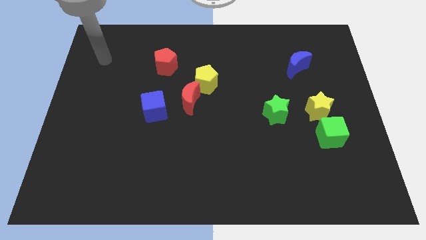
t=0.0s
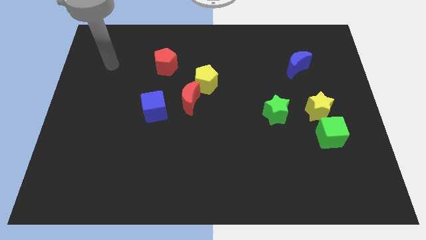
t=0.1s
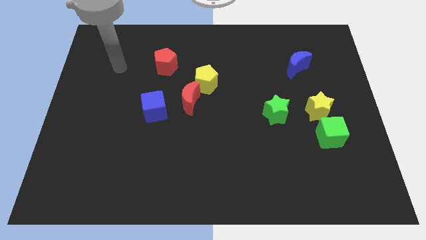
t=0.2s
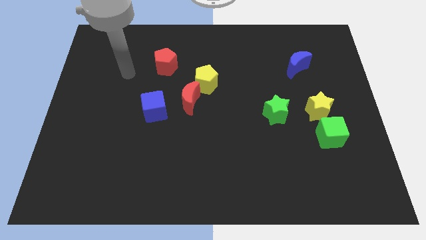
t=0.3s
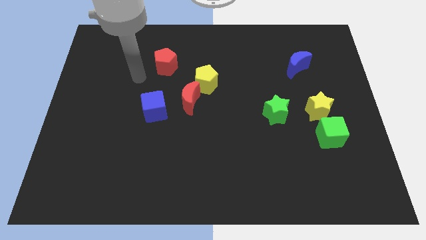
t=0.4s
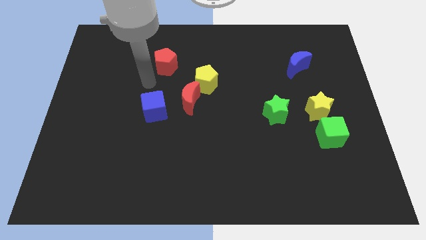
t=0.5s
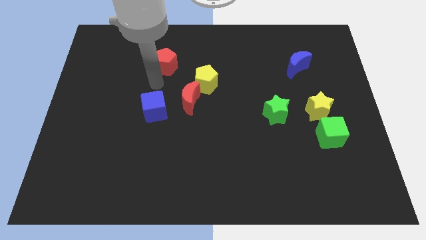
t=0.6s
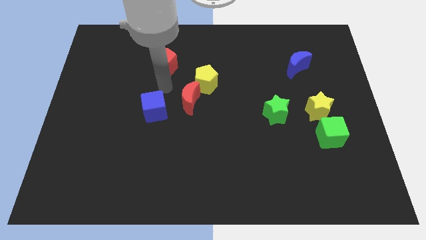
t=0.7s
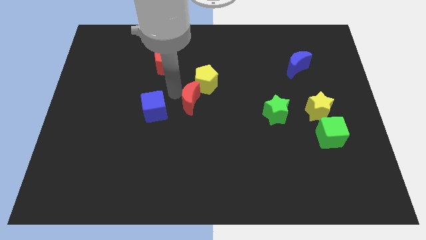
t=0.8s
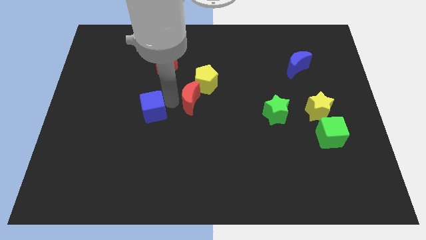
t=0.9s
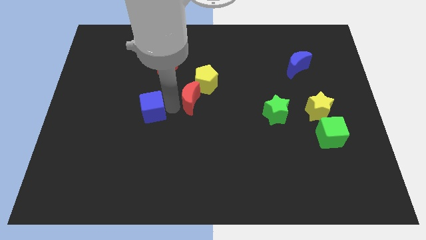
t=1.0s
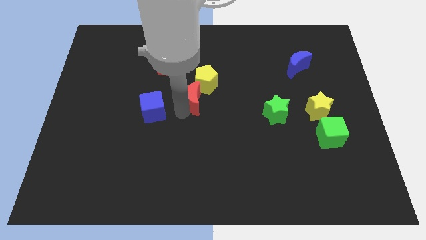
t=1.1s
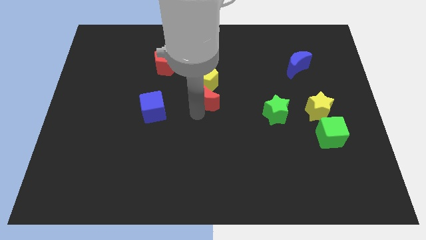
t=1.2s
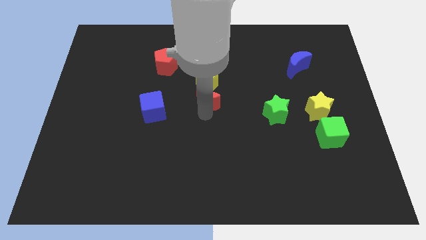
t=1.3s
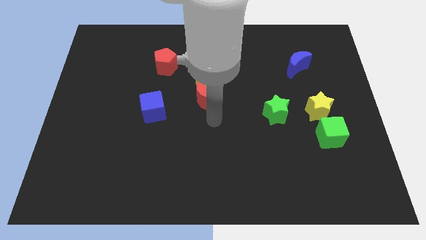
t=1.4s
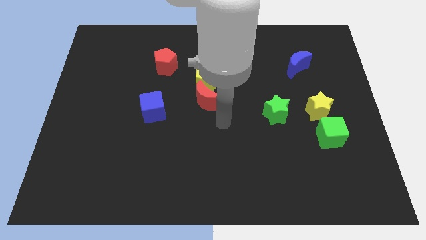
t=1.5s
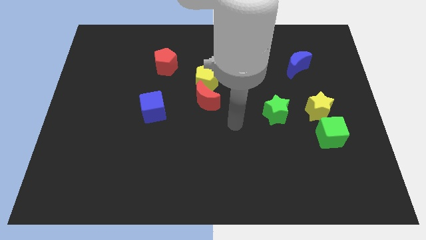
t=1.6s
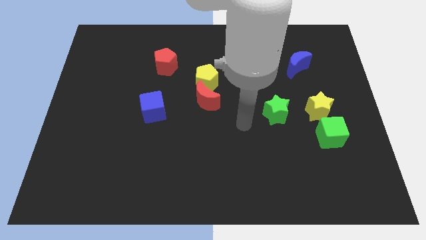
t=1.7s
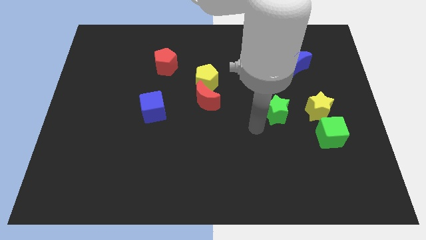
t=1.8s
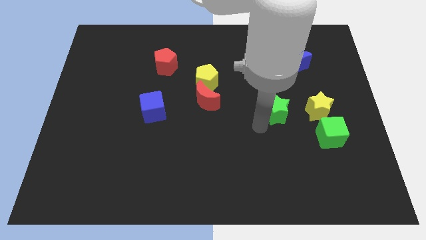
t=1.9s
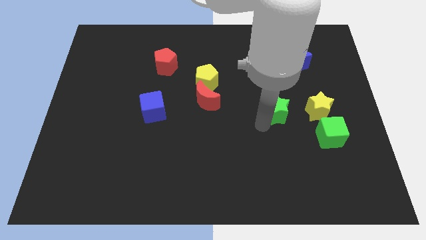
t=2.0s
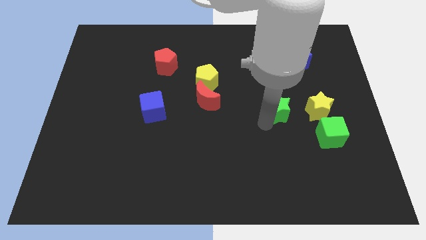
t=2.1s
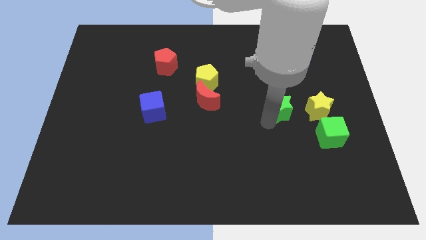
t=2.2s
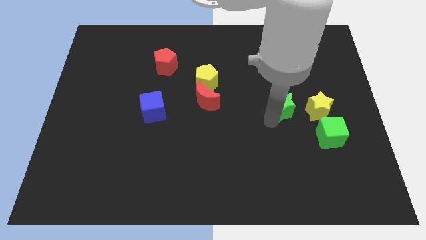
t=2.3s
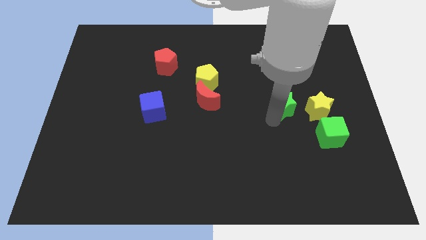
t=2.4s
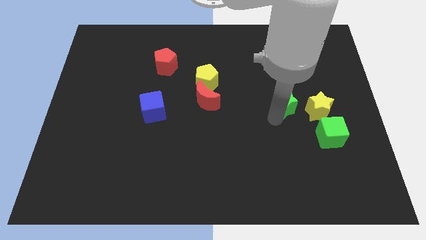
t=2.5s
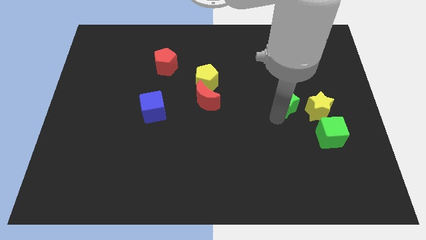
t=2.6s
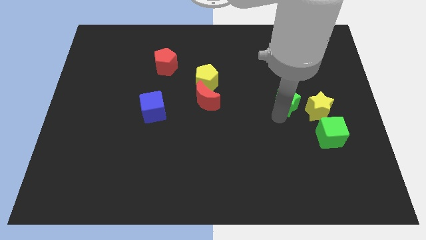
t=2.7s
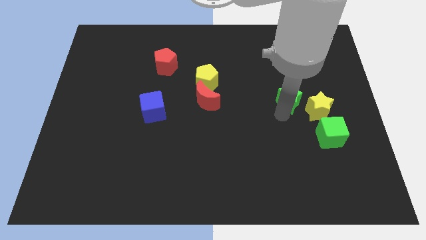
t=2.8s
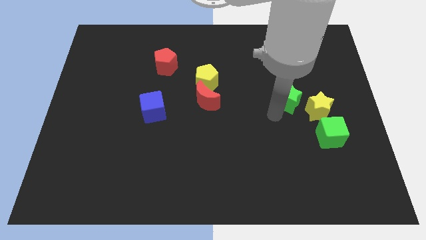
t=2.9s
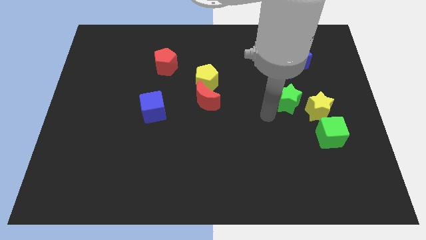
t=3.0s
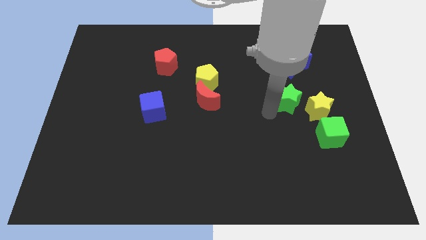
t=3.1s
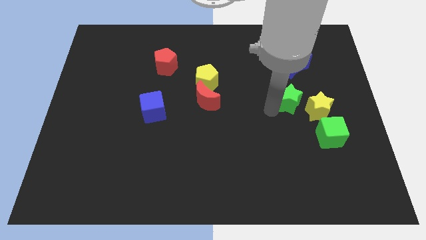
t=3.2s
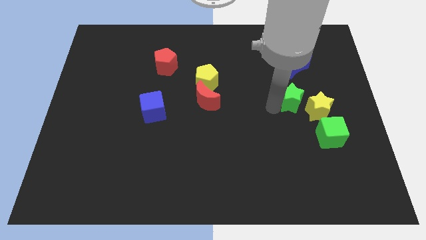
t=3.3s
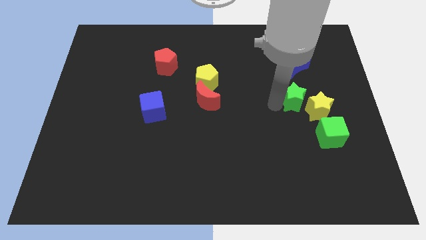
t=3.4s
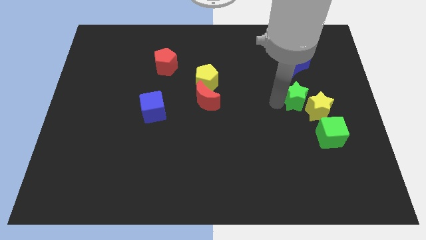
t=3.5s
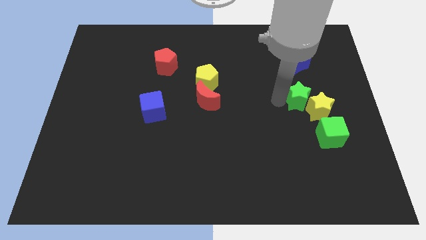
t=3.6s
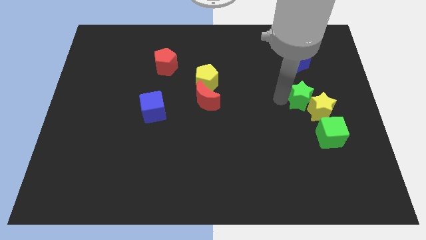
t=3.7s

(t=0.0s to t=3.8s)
slightly push the green star upwards and to the right

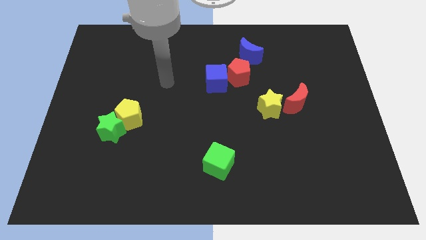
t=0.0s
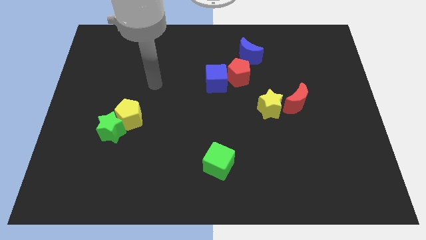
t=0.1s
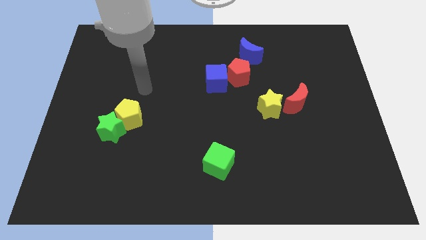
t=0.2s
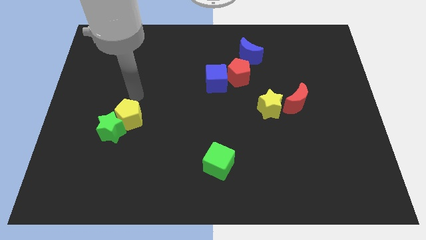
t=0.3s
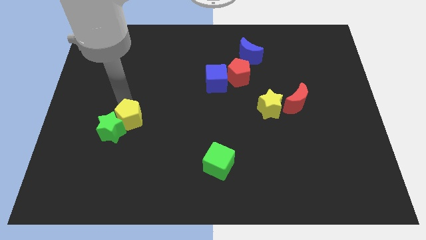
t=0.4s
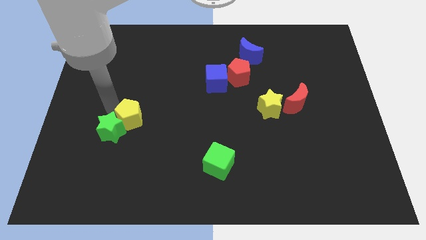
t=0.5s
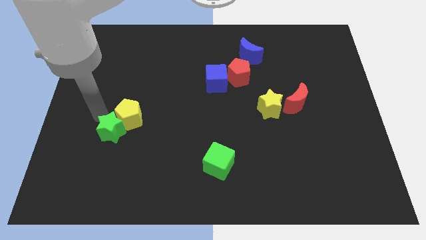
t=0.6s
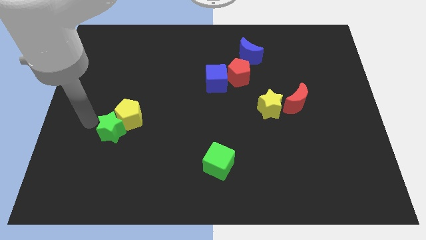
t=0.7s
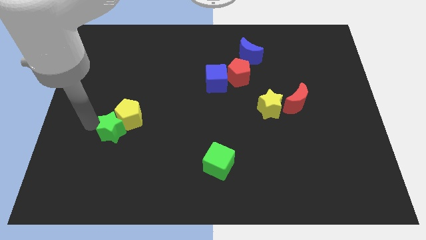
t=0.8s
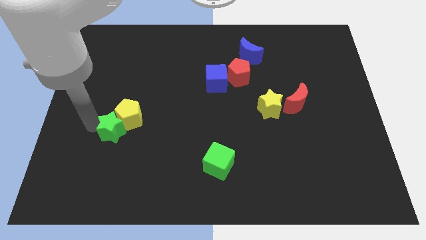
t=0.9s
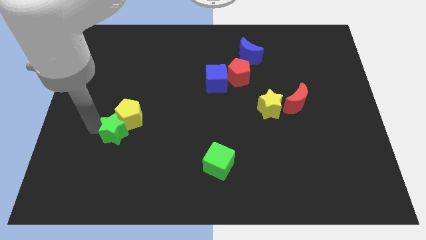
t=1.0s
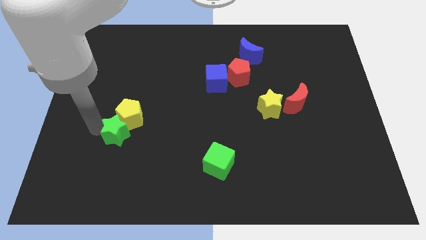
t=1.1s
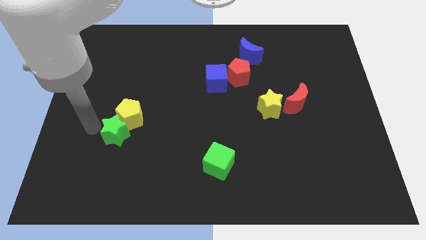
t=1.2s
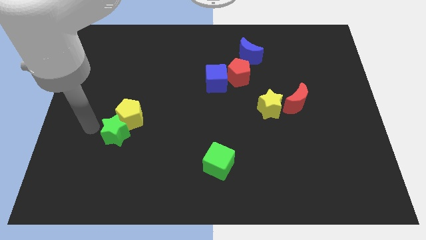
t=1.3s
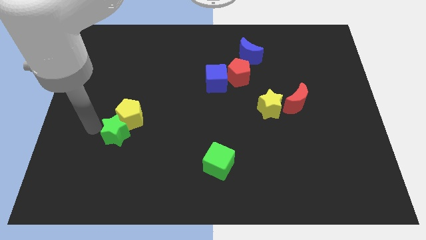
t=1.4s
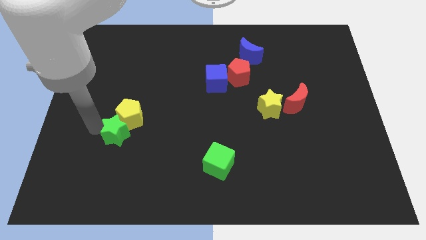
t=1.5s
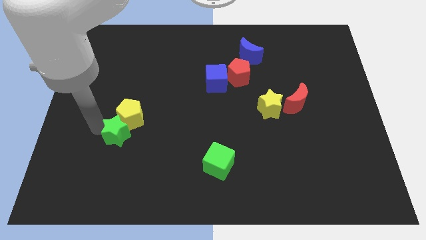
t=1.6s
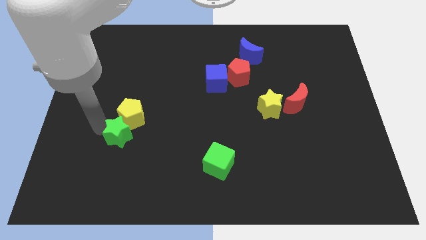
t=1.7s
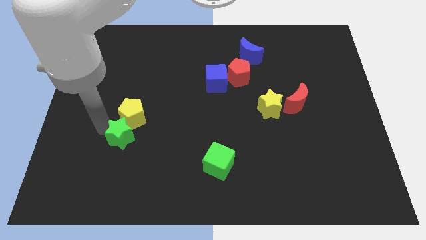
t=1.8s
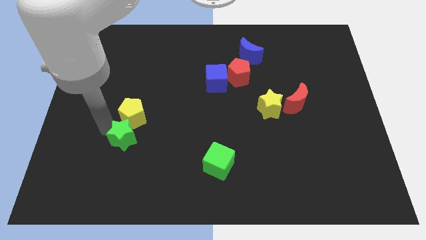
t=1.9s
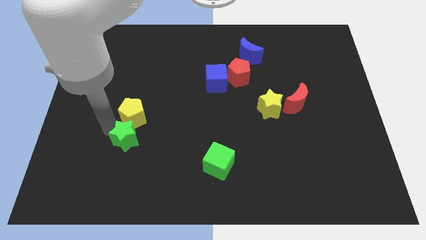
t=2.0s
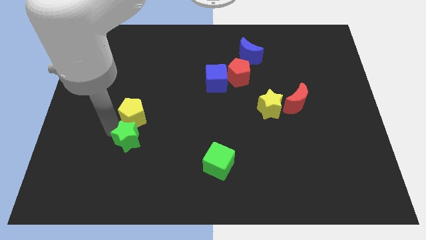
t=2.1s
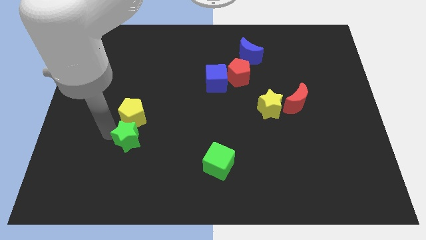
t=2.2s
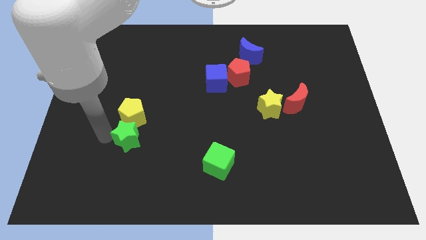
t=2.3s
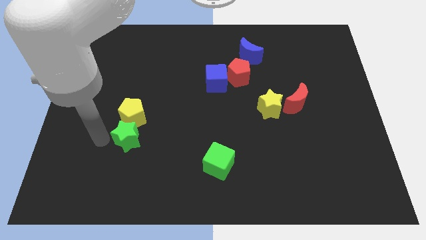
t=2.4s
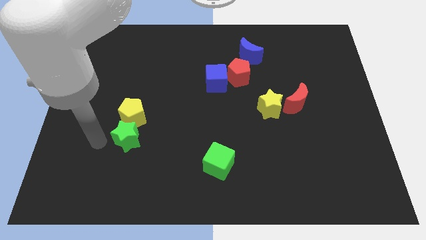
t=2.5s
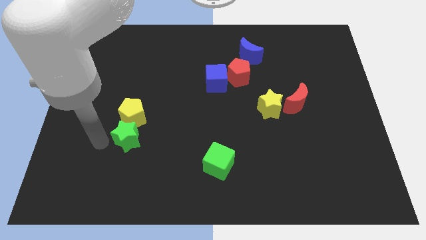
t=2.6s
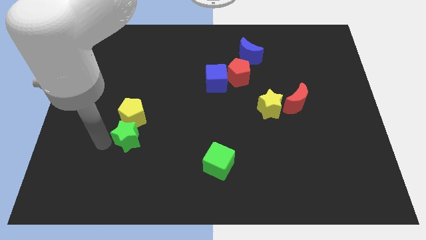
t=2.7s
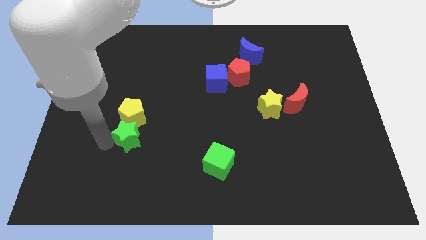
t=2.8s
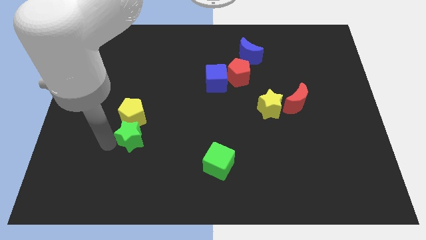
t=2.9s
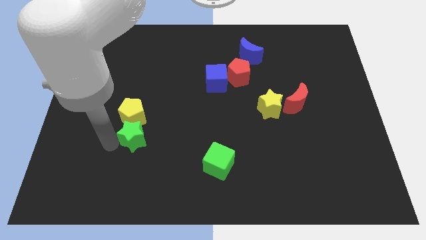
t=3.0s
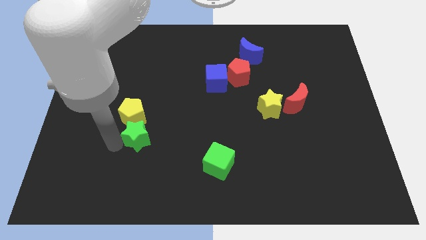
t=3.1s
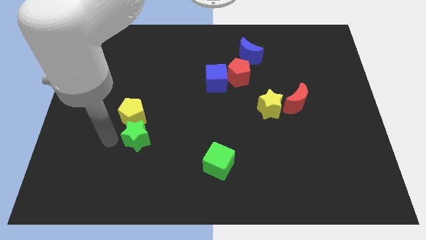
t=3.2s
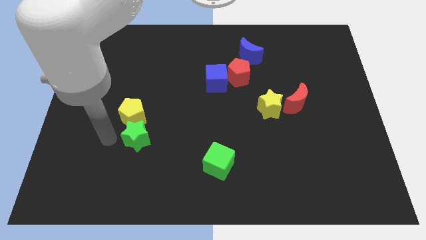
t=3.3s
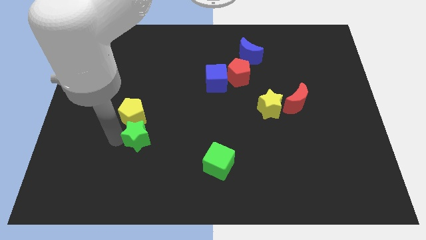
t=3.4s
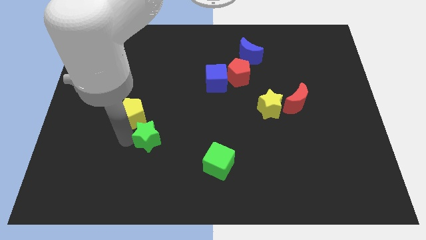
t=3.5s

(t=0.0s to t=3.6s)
push the green star to the right a little

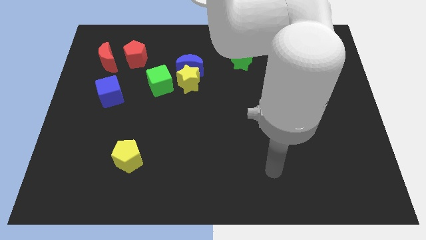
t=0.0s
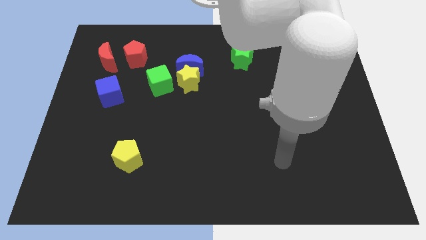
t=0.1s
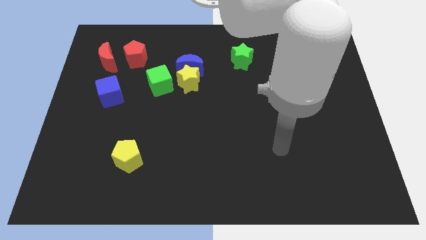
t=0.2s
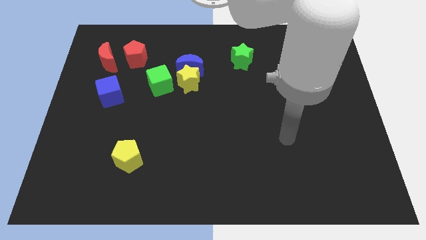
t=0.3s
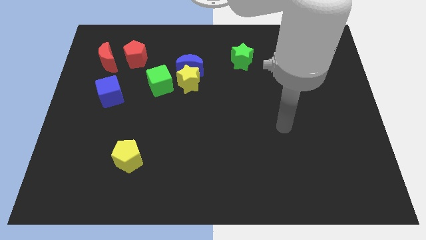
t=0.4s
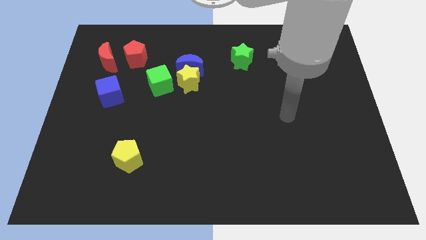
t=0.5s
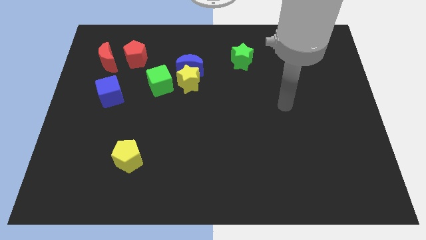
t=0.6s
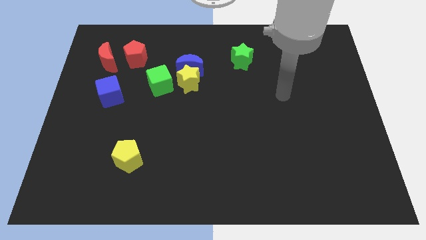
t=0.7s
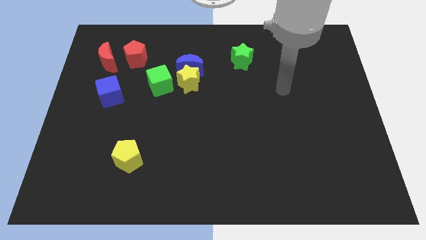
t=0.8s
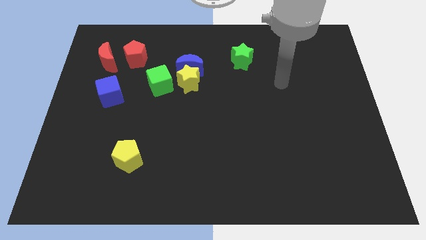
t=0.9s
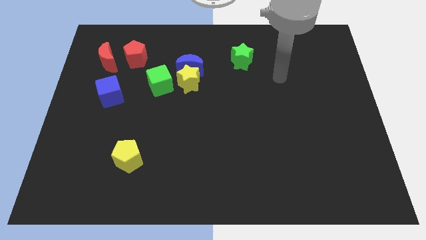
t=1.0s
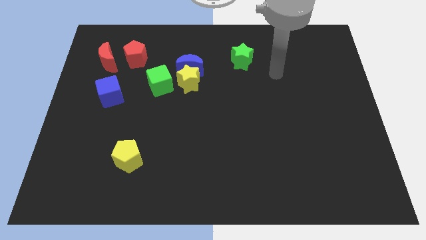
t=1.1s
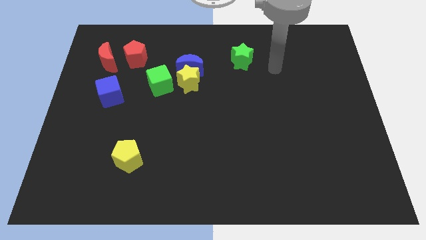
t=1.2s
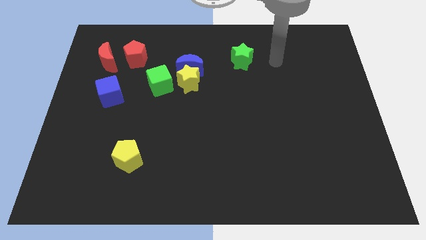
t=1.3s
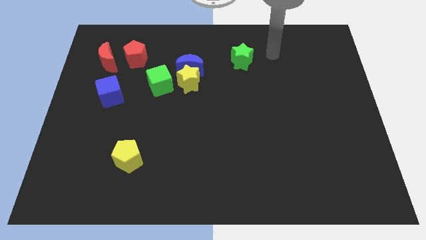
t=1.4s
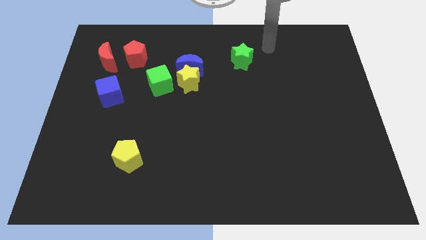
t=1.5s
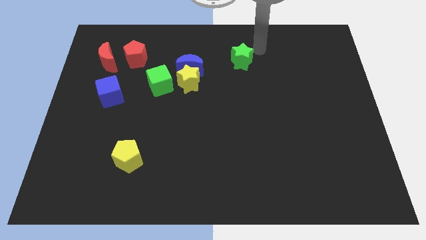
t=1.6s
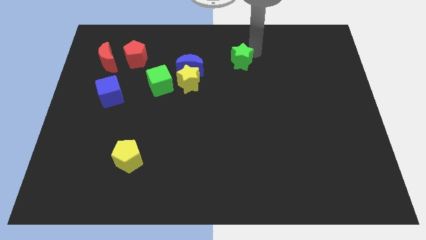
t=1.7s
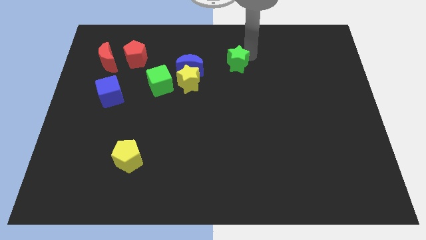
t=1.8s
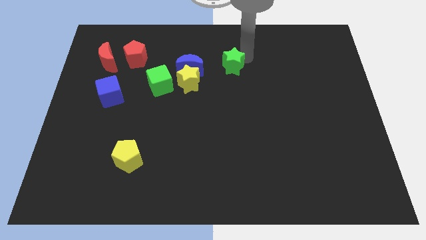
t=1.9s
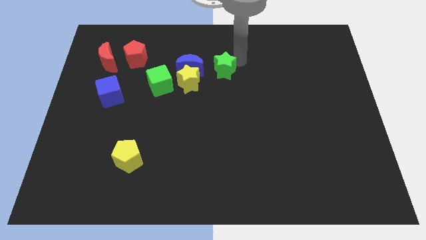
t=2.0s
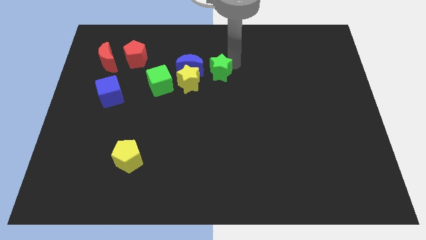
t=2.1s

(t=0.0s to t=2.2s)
push the green star a bit downwards and then left
